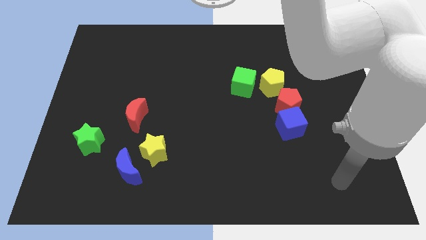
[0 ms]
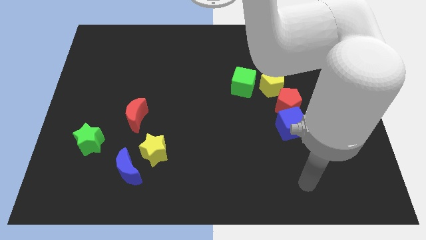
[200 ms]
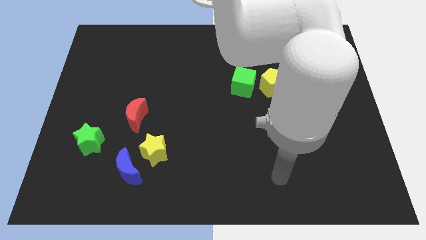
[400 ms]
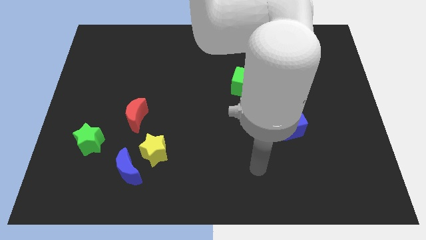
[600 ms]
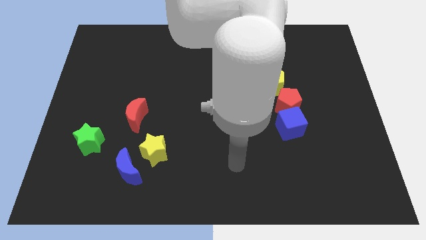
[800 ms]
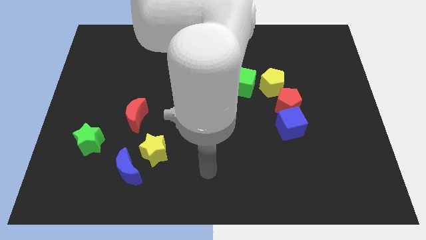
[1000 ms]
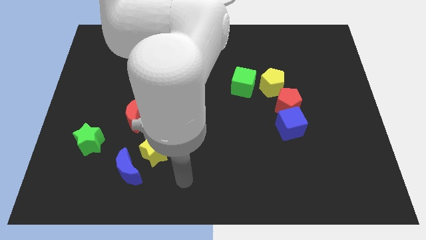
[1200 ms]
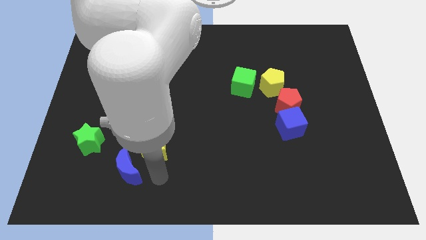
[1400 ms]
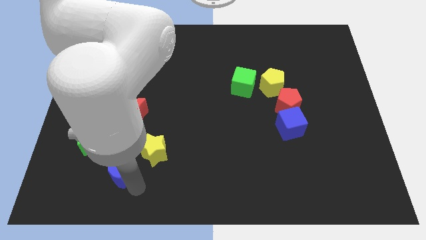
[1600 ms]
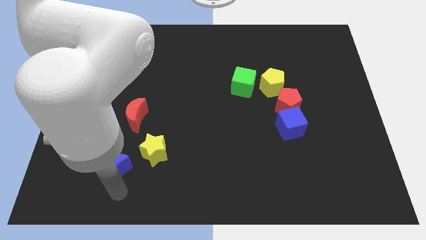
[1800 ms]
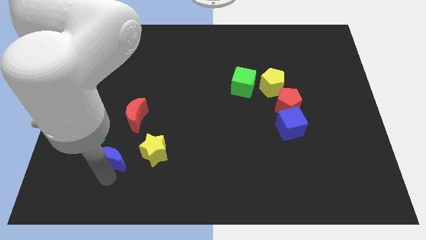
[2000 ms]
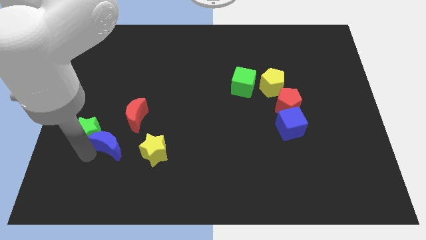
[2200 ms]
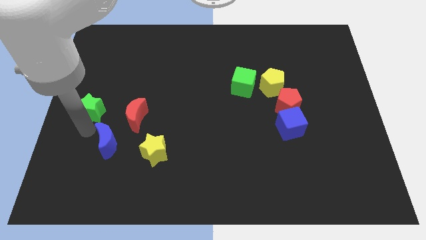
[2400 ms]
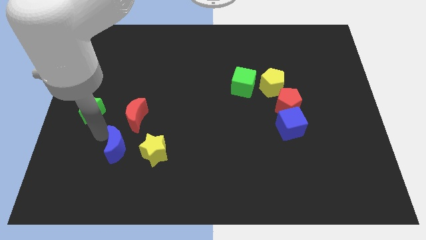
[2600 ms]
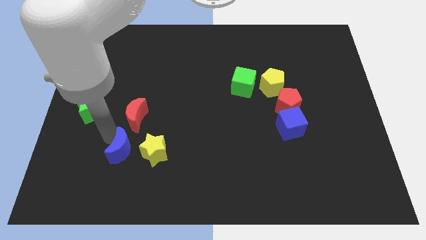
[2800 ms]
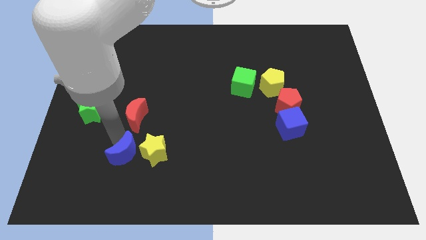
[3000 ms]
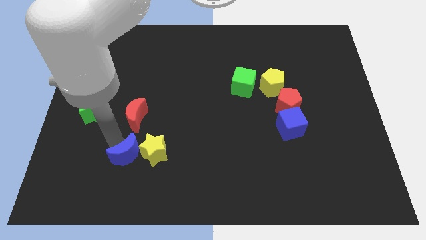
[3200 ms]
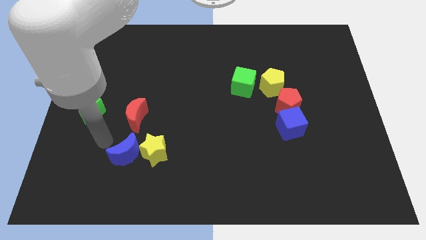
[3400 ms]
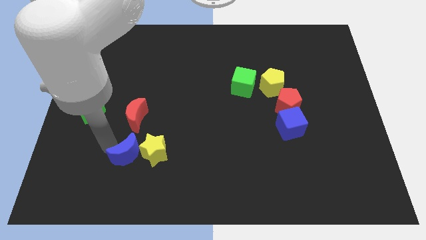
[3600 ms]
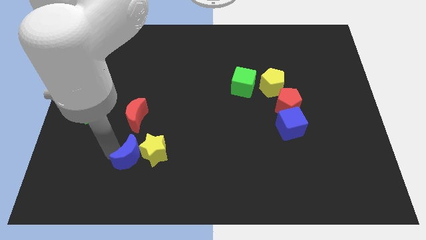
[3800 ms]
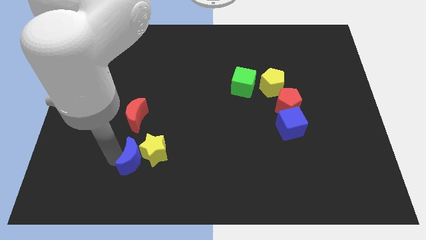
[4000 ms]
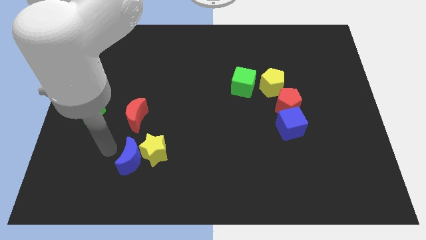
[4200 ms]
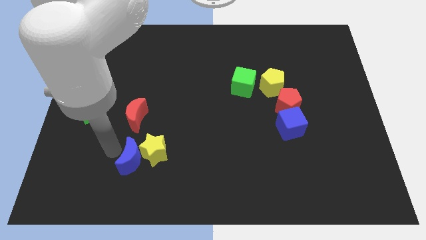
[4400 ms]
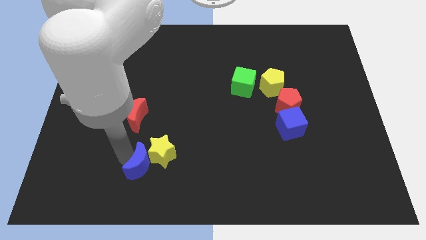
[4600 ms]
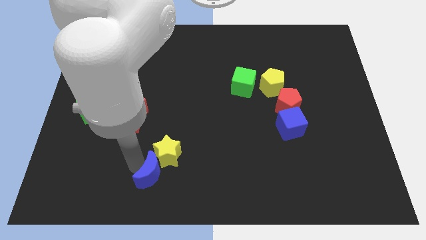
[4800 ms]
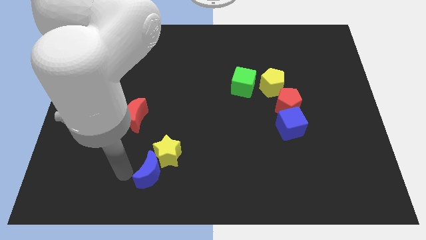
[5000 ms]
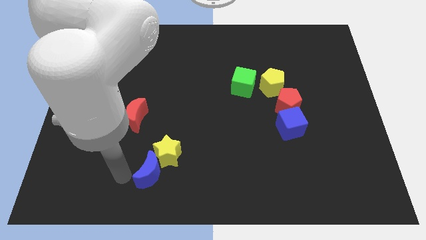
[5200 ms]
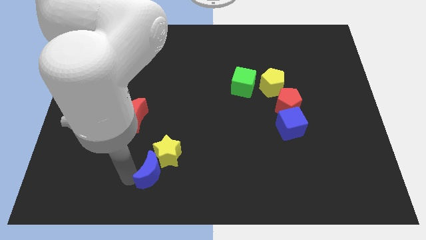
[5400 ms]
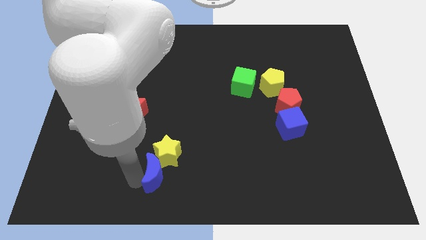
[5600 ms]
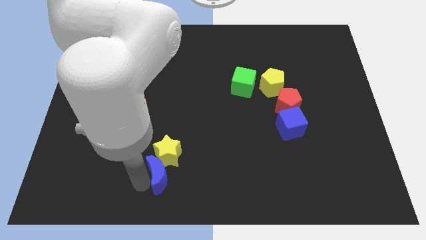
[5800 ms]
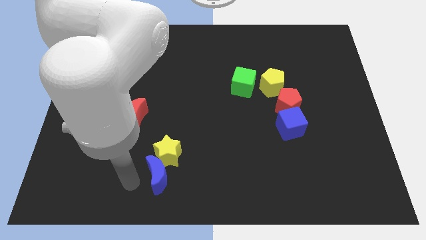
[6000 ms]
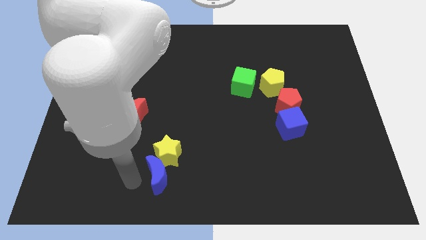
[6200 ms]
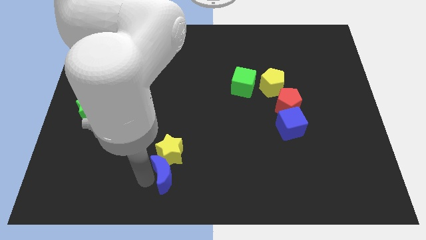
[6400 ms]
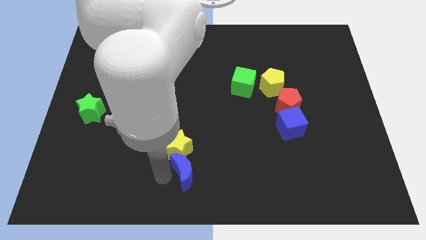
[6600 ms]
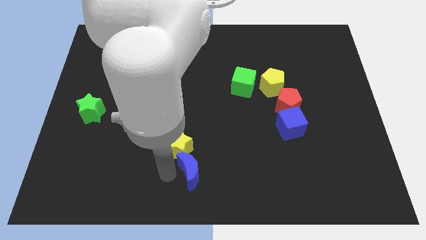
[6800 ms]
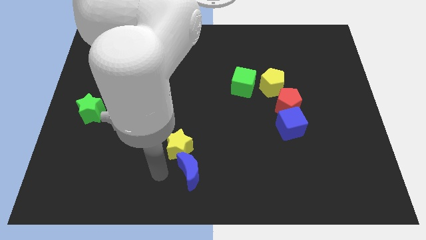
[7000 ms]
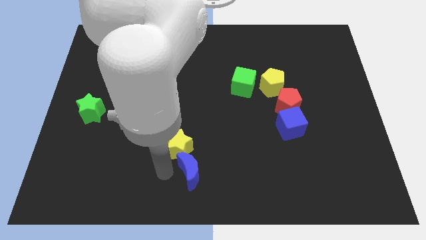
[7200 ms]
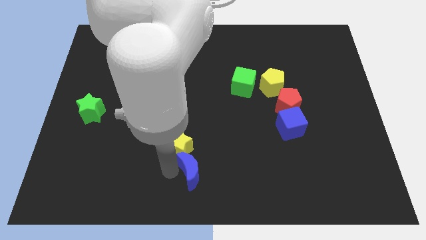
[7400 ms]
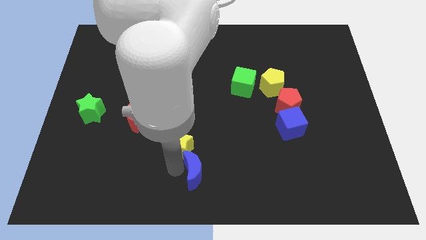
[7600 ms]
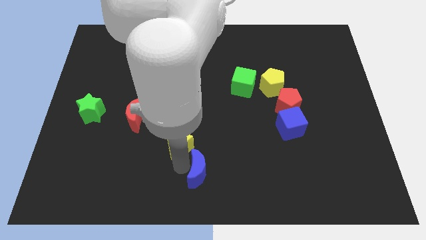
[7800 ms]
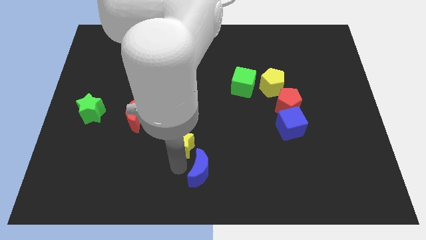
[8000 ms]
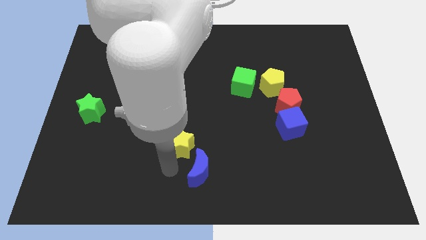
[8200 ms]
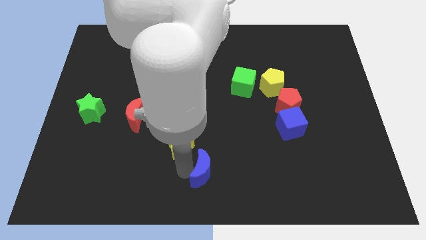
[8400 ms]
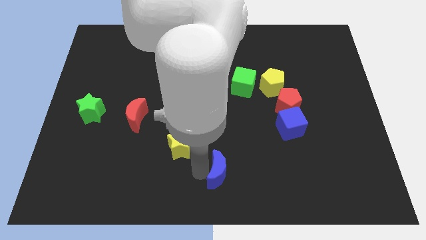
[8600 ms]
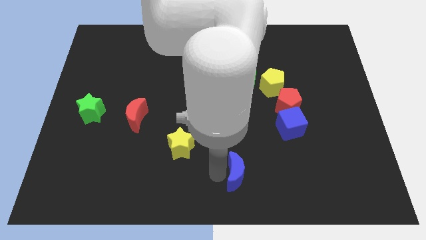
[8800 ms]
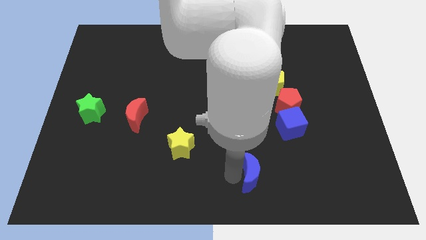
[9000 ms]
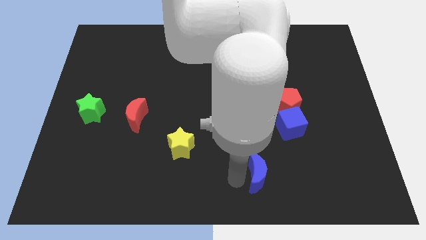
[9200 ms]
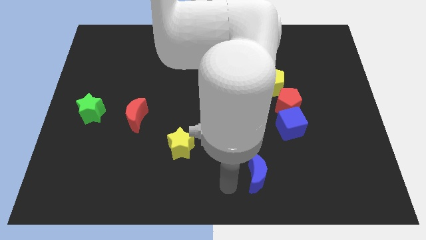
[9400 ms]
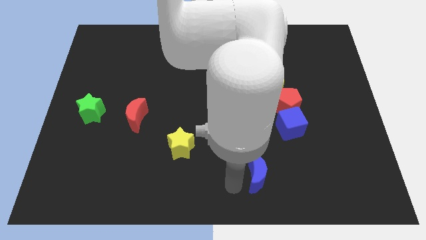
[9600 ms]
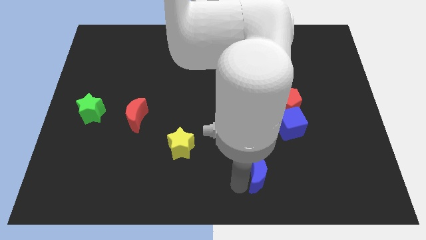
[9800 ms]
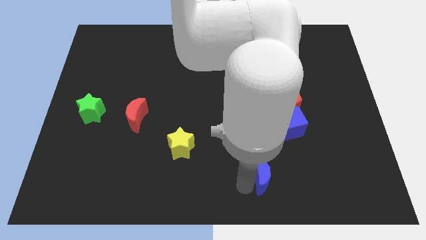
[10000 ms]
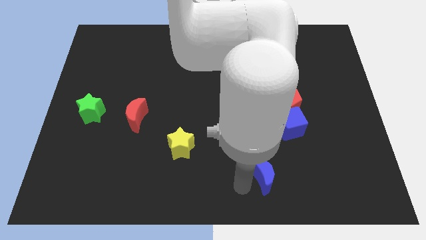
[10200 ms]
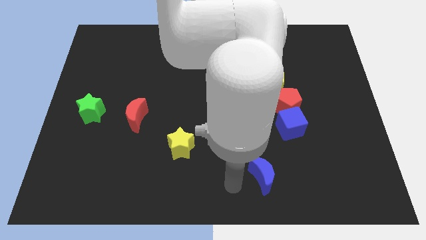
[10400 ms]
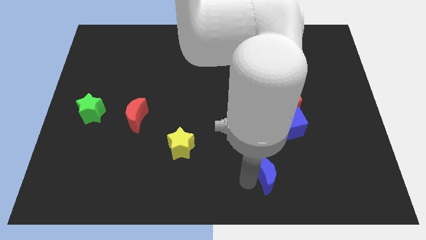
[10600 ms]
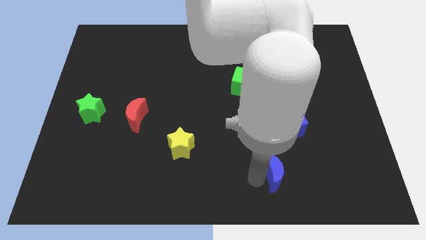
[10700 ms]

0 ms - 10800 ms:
push the blue moon to the bottom of the blue cube

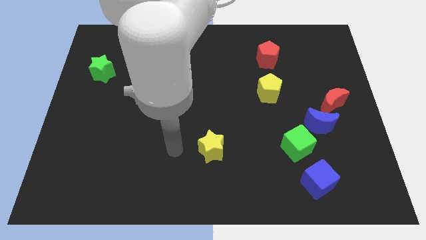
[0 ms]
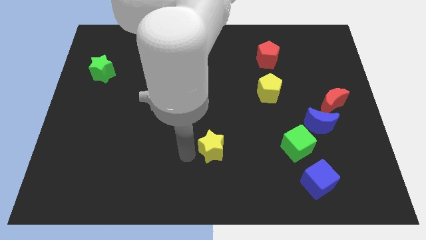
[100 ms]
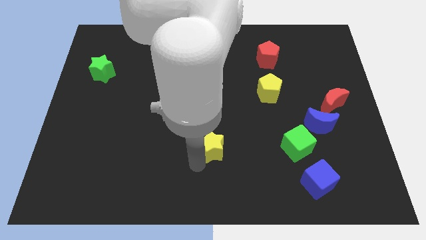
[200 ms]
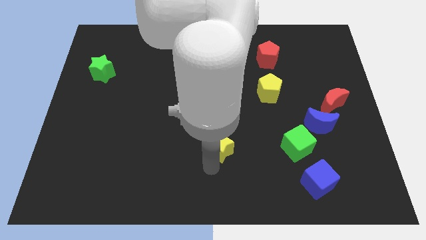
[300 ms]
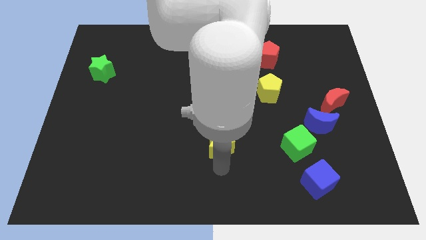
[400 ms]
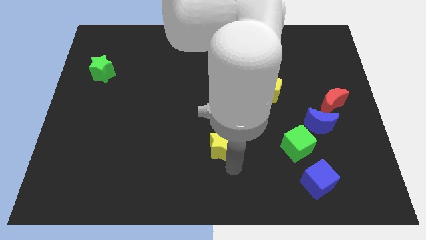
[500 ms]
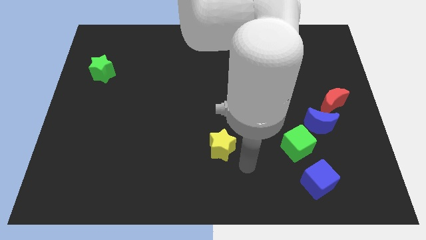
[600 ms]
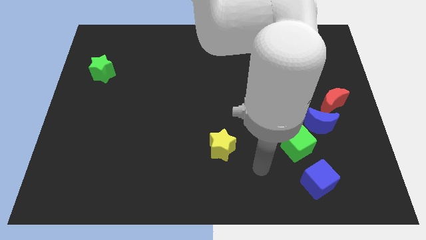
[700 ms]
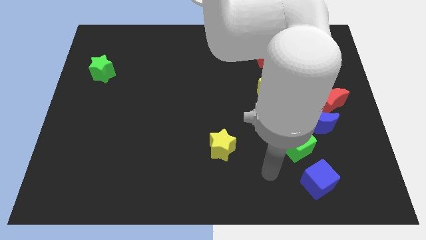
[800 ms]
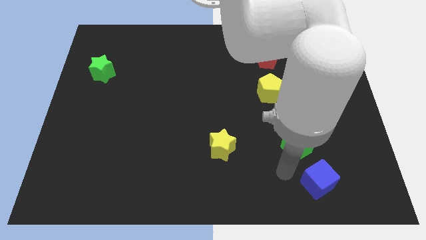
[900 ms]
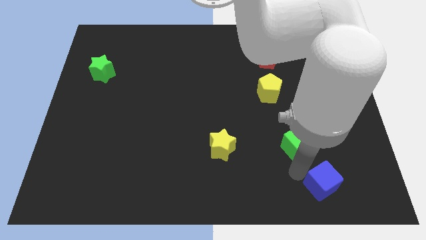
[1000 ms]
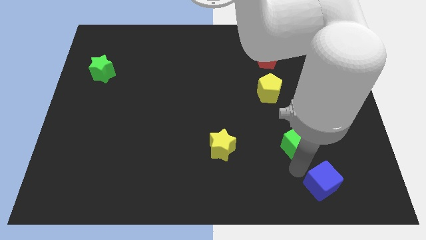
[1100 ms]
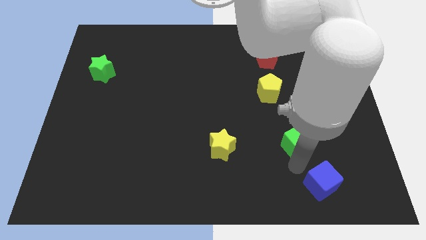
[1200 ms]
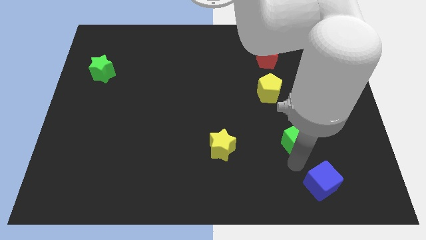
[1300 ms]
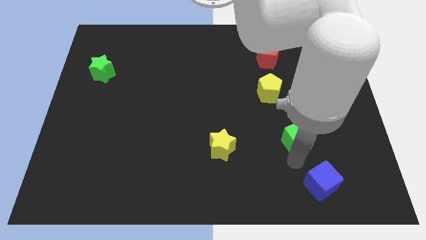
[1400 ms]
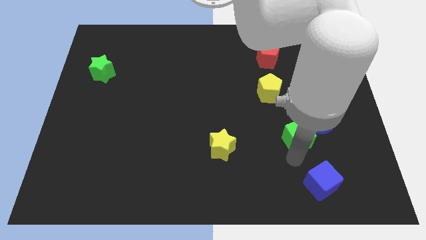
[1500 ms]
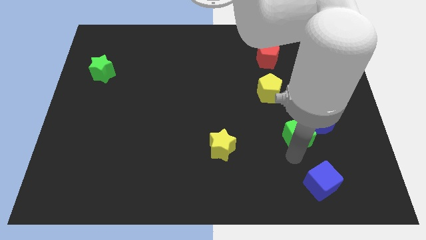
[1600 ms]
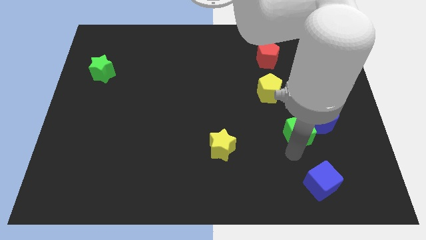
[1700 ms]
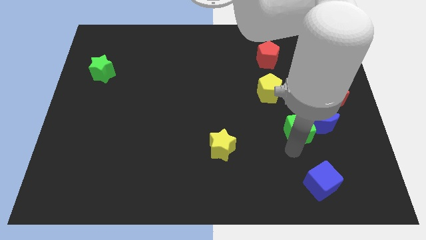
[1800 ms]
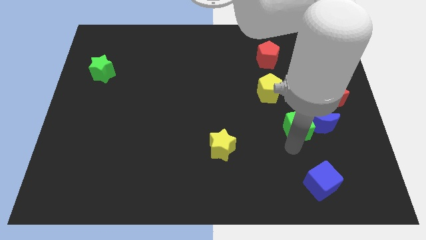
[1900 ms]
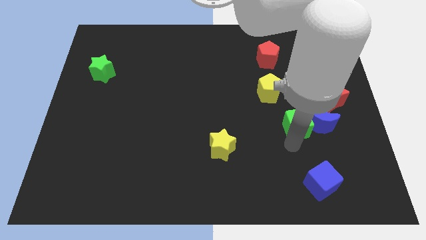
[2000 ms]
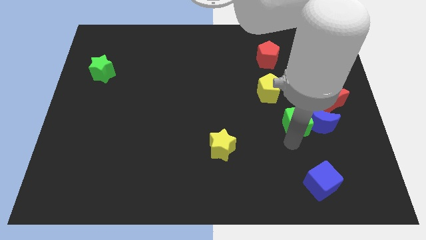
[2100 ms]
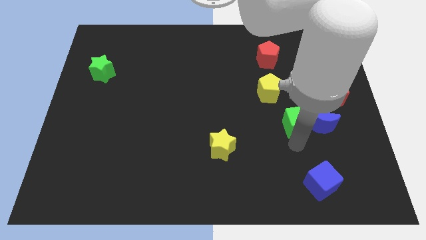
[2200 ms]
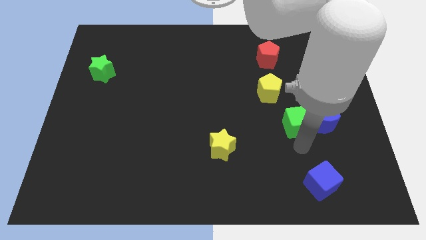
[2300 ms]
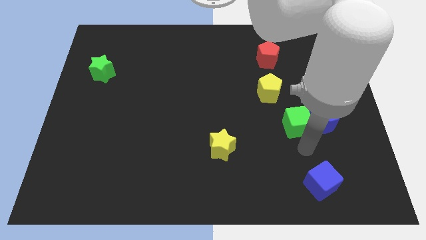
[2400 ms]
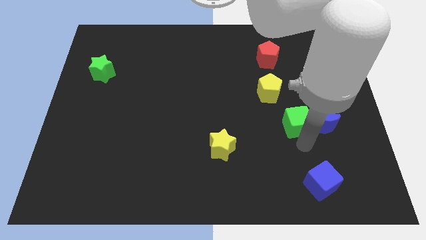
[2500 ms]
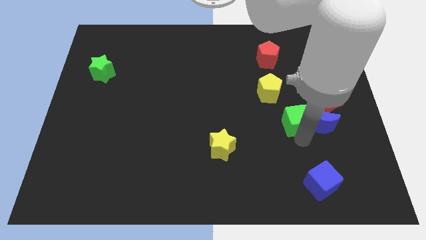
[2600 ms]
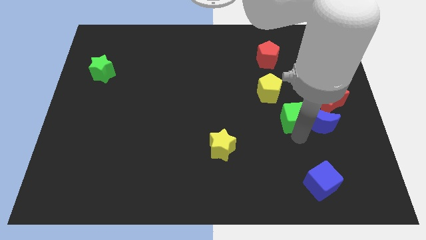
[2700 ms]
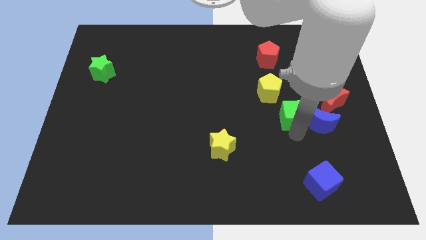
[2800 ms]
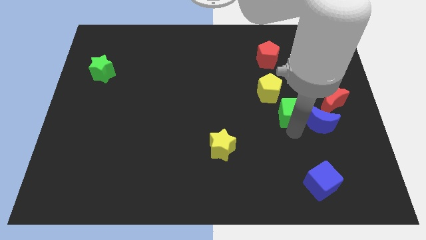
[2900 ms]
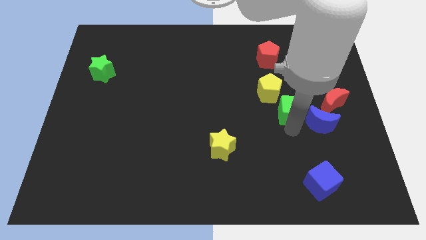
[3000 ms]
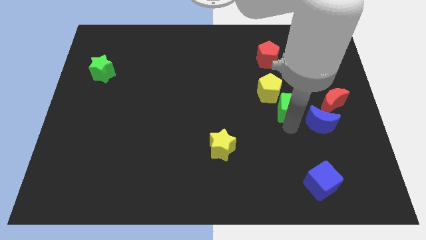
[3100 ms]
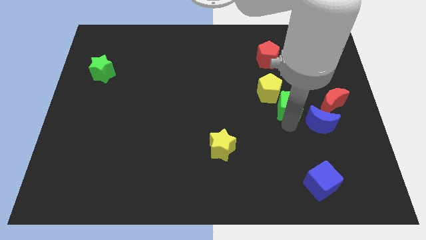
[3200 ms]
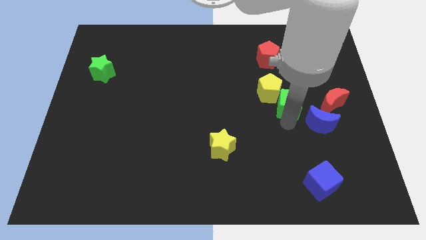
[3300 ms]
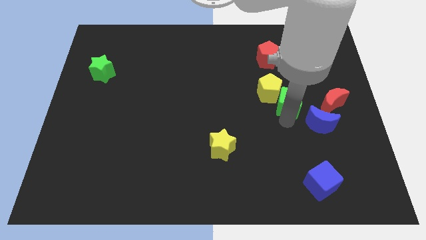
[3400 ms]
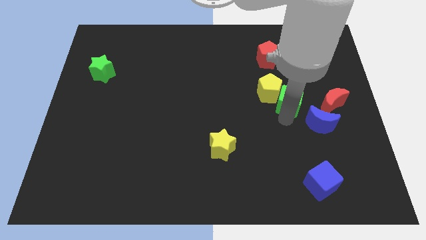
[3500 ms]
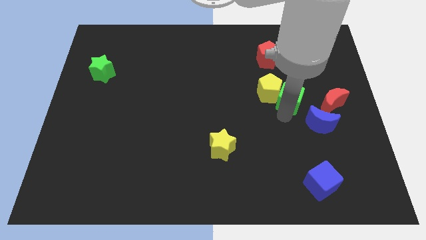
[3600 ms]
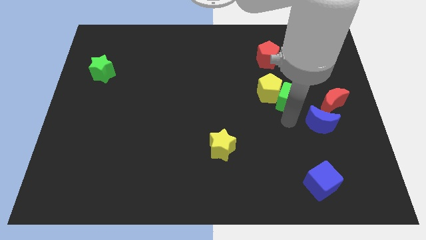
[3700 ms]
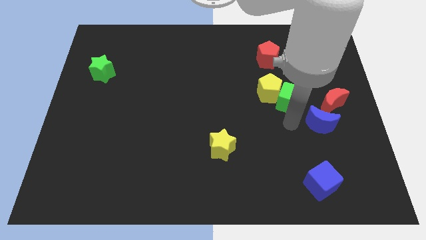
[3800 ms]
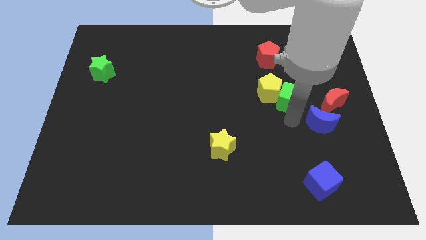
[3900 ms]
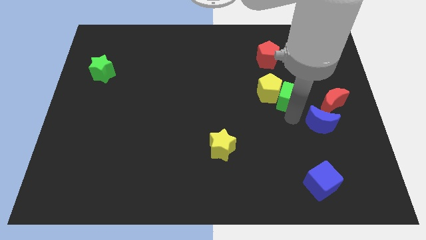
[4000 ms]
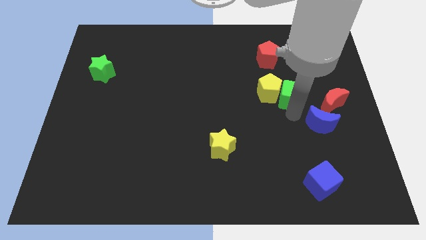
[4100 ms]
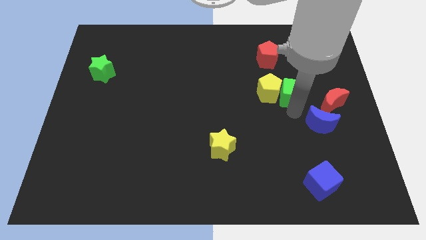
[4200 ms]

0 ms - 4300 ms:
put the green cube diagonally up and to the right of the yellow pentagon
